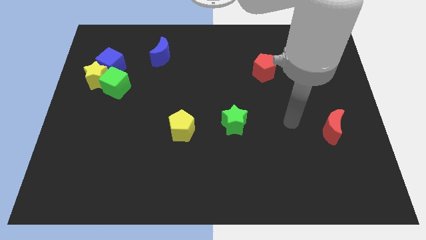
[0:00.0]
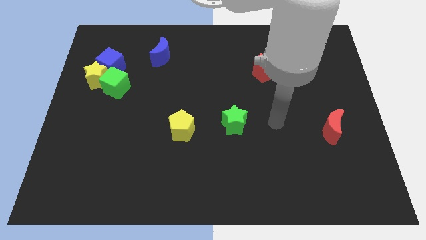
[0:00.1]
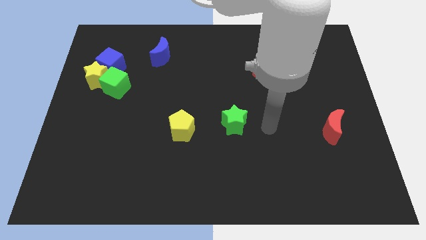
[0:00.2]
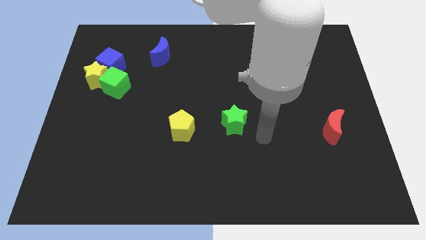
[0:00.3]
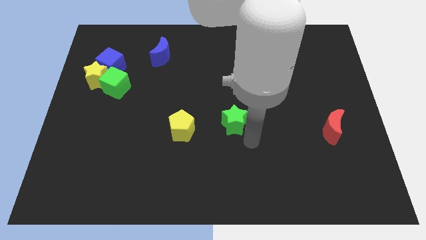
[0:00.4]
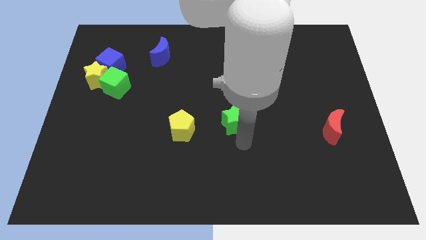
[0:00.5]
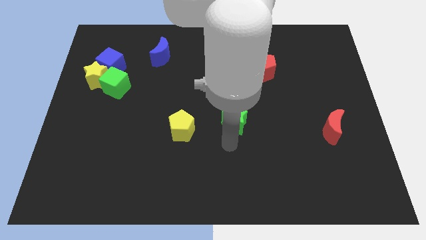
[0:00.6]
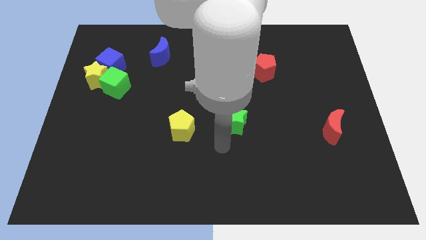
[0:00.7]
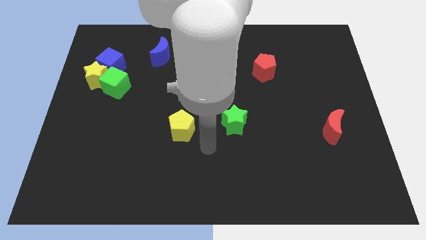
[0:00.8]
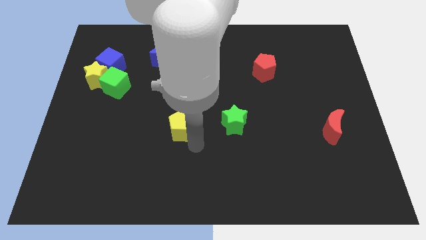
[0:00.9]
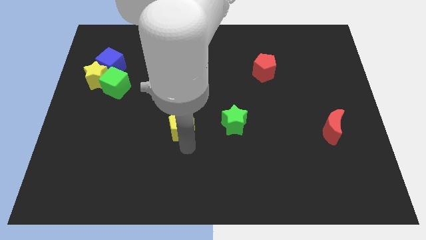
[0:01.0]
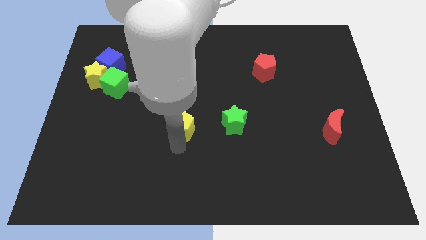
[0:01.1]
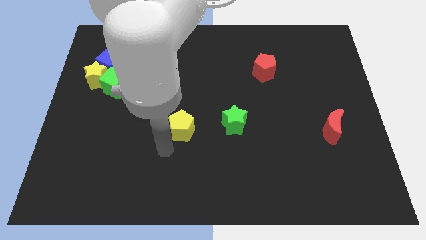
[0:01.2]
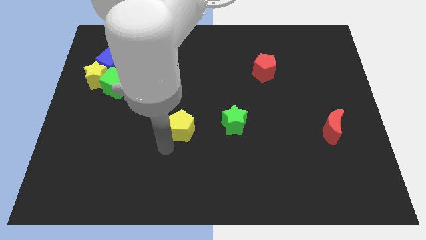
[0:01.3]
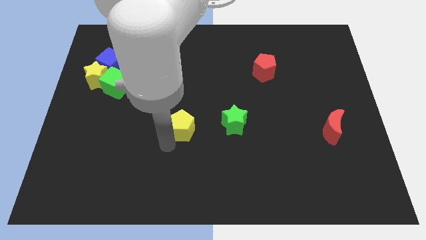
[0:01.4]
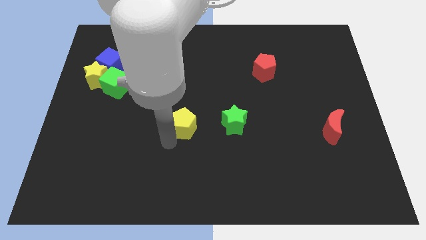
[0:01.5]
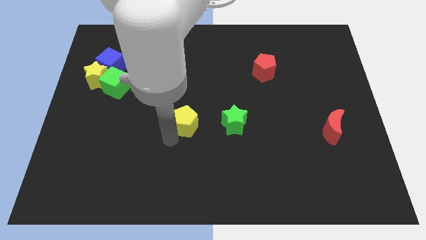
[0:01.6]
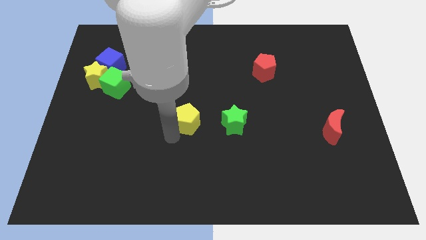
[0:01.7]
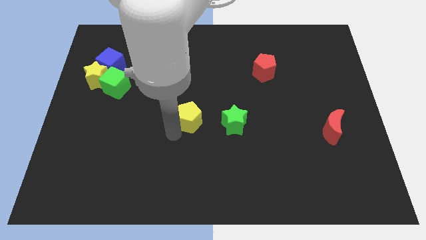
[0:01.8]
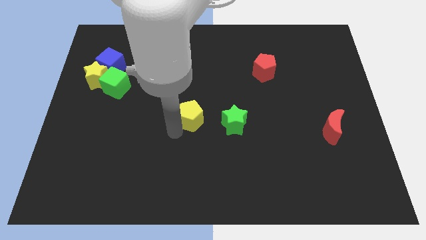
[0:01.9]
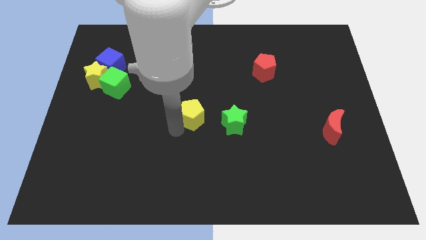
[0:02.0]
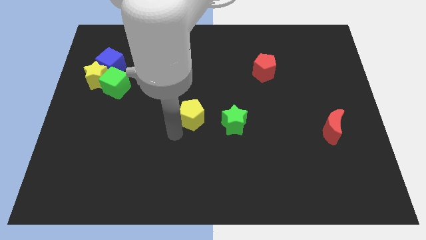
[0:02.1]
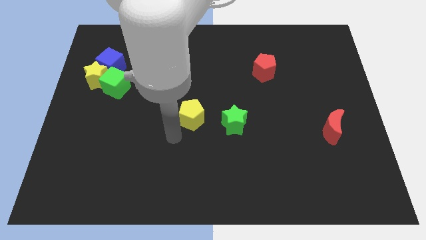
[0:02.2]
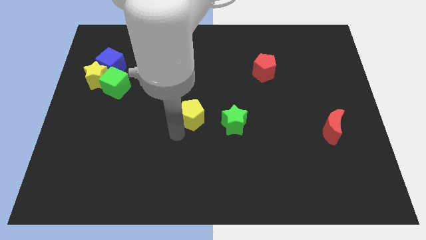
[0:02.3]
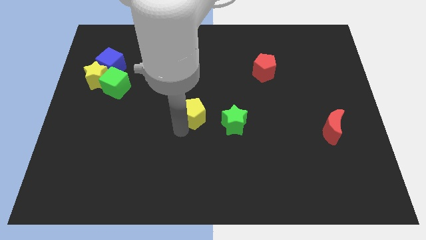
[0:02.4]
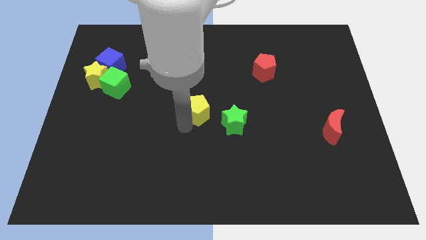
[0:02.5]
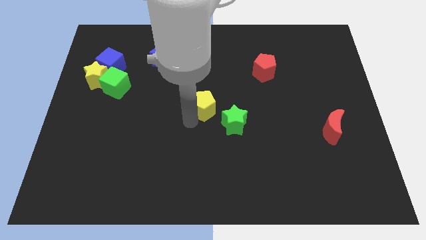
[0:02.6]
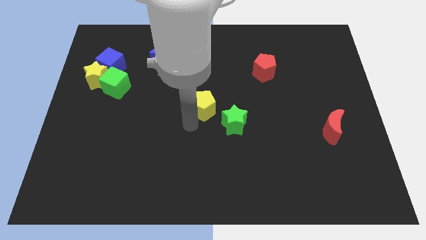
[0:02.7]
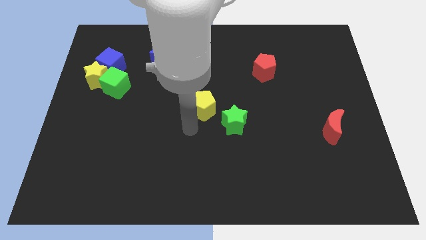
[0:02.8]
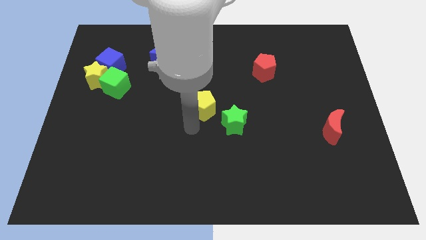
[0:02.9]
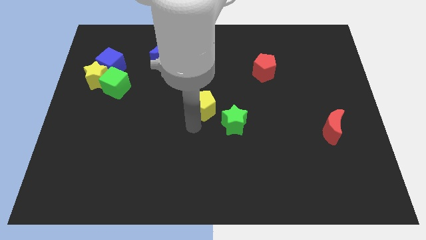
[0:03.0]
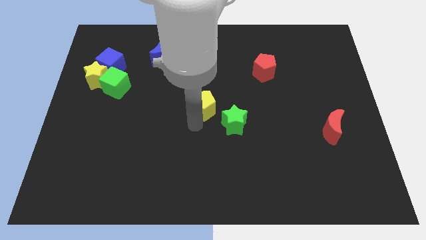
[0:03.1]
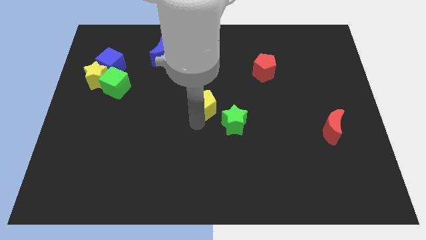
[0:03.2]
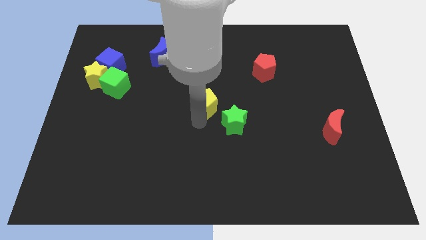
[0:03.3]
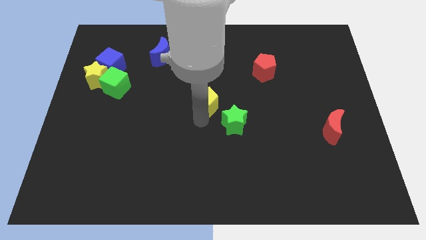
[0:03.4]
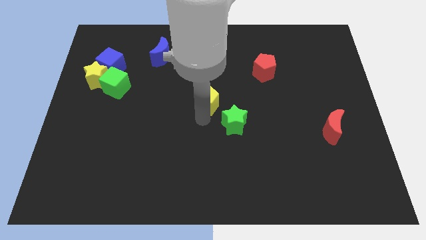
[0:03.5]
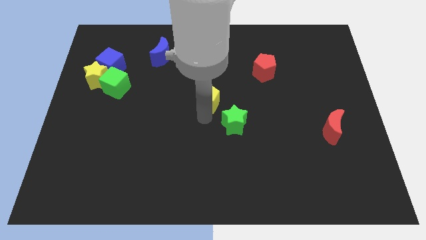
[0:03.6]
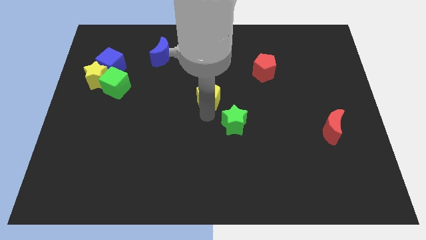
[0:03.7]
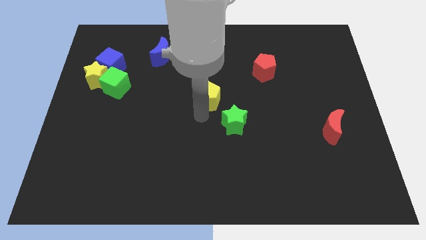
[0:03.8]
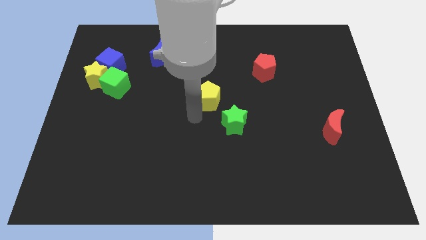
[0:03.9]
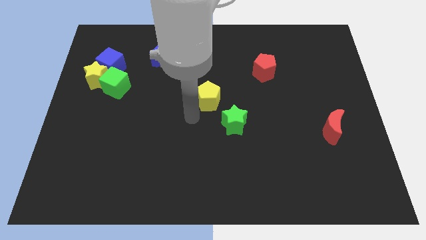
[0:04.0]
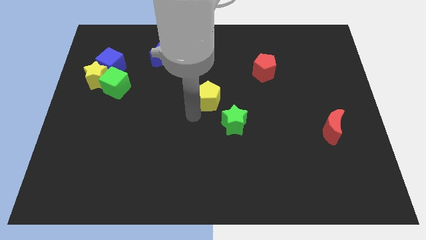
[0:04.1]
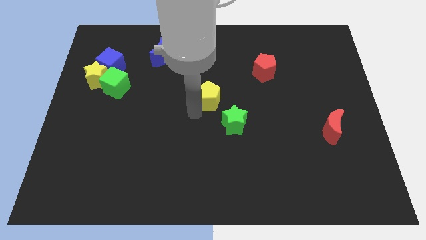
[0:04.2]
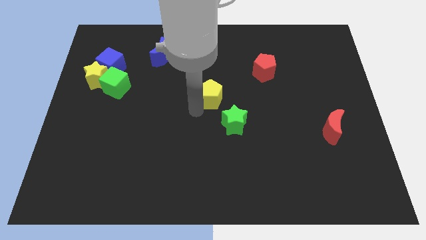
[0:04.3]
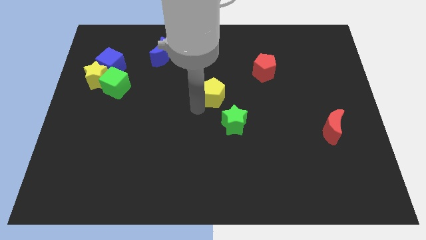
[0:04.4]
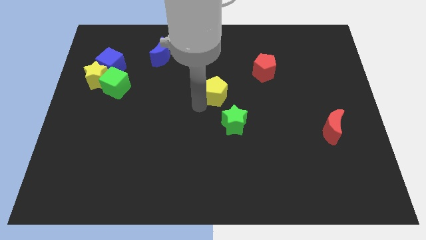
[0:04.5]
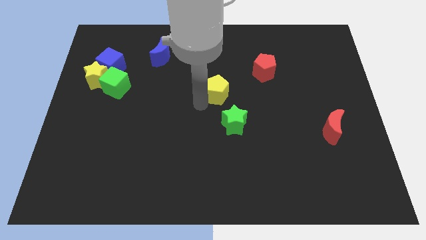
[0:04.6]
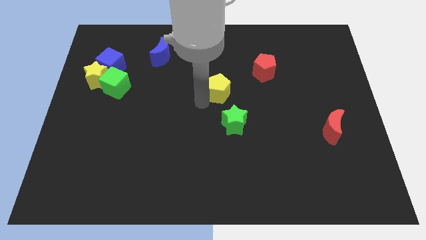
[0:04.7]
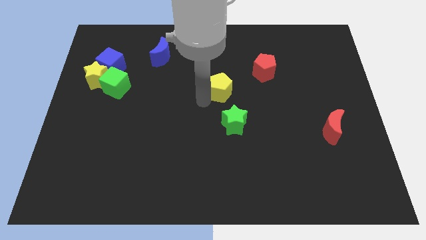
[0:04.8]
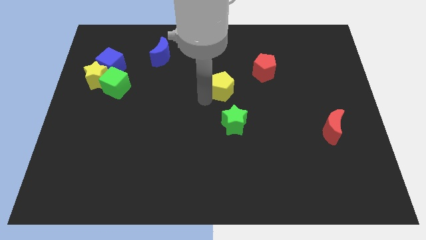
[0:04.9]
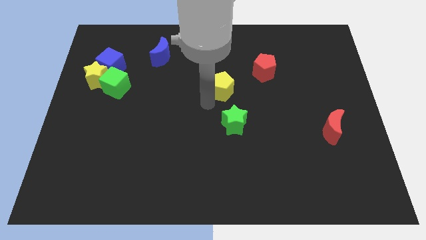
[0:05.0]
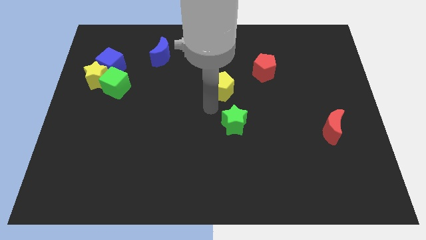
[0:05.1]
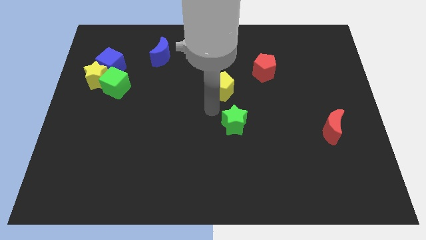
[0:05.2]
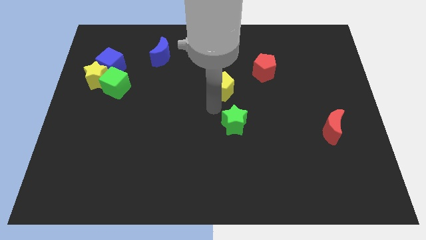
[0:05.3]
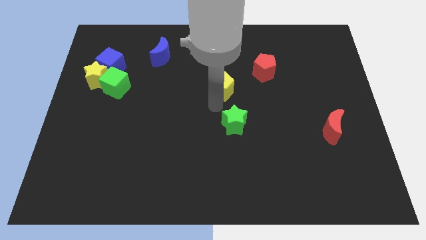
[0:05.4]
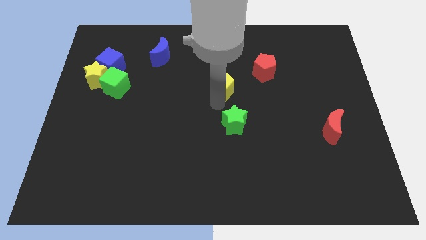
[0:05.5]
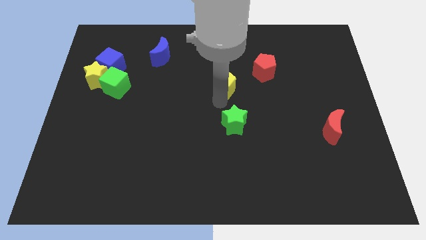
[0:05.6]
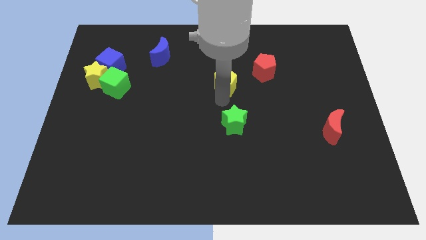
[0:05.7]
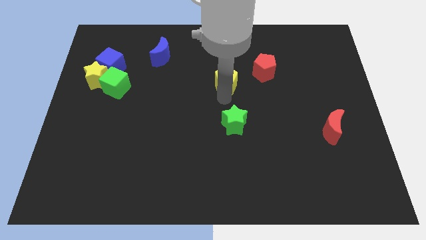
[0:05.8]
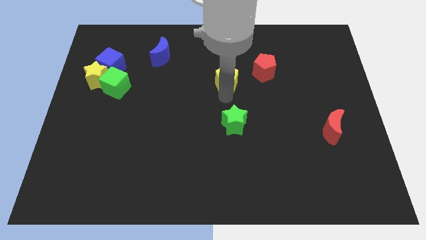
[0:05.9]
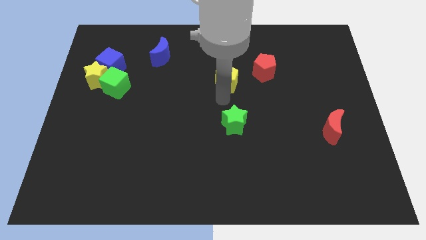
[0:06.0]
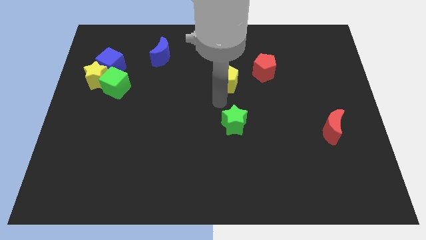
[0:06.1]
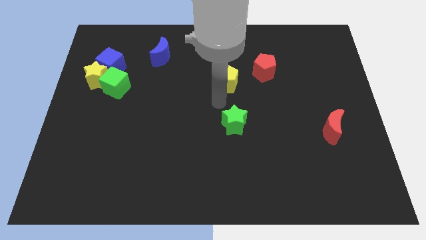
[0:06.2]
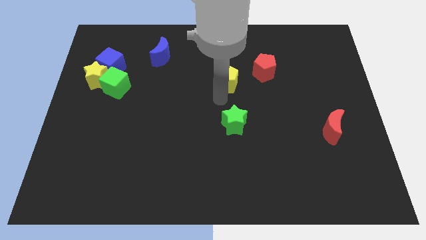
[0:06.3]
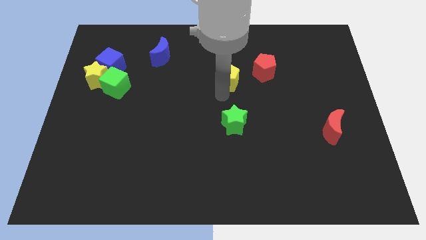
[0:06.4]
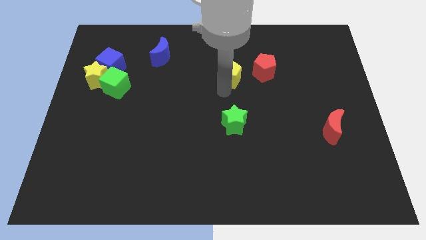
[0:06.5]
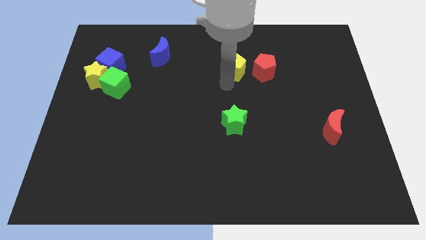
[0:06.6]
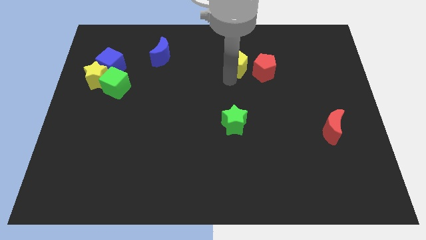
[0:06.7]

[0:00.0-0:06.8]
put the yellow pentagon to the top left side of the red pentagon
